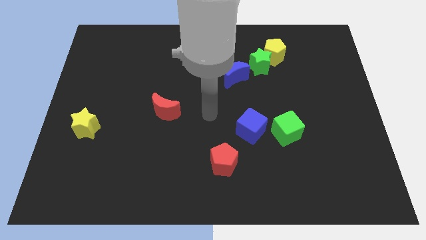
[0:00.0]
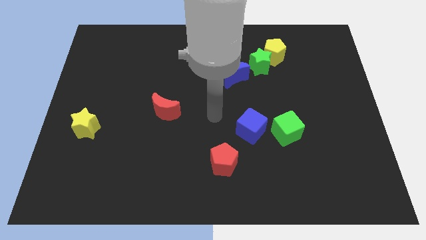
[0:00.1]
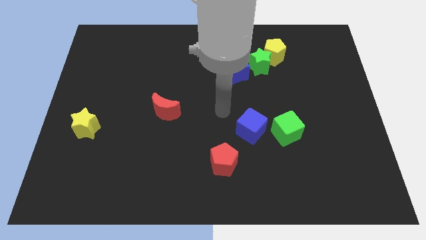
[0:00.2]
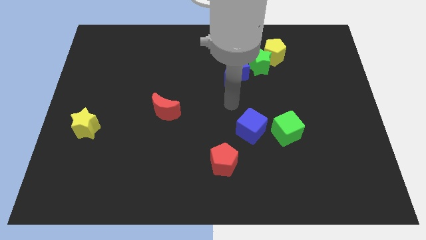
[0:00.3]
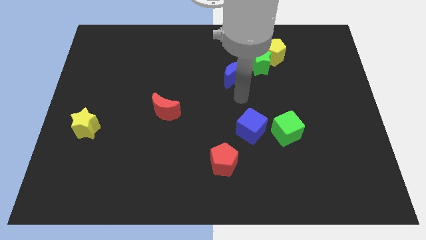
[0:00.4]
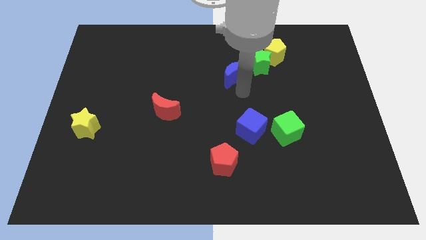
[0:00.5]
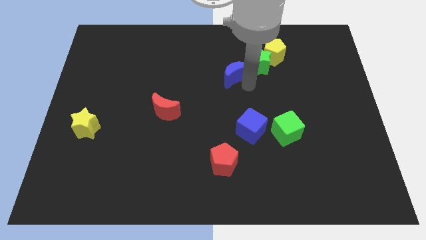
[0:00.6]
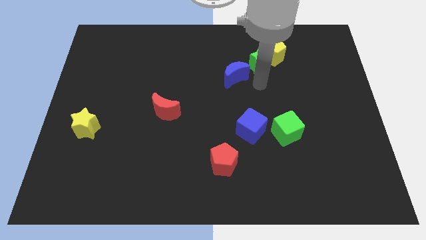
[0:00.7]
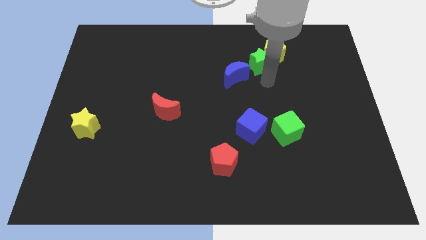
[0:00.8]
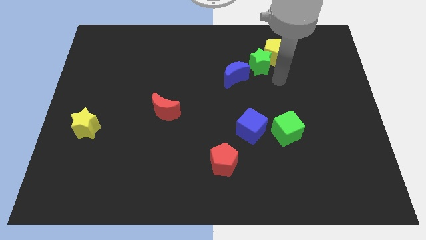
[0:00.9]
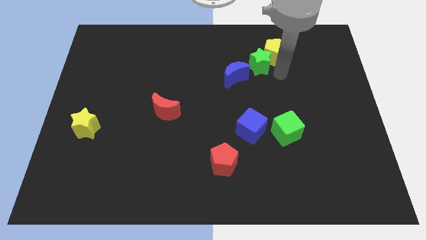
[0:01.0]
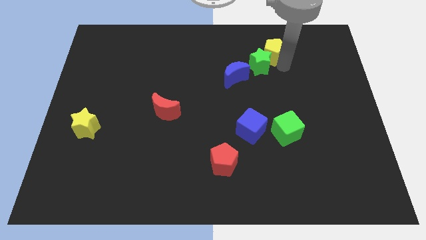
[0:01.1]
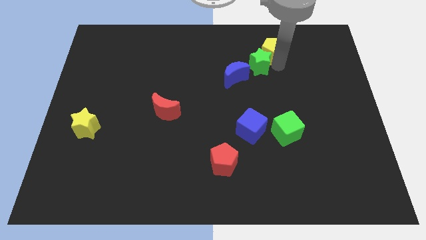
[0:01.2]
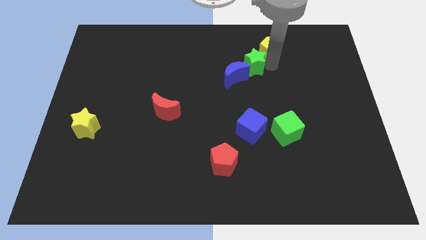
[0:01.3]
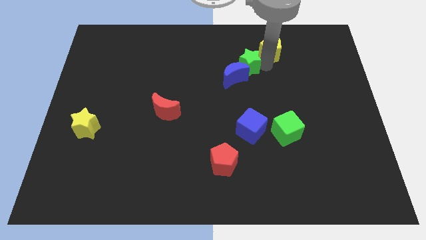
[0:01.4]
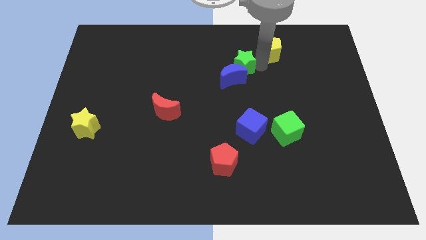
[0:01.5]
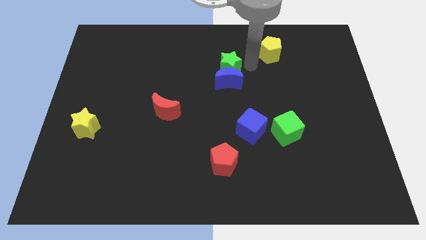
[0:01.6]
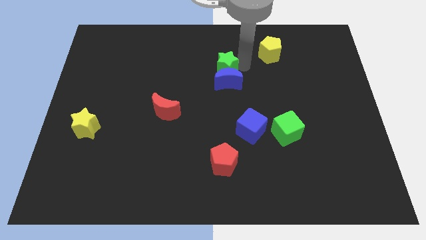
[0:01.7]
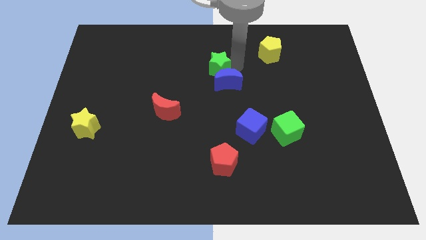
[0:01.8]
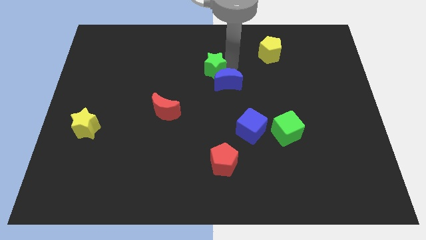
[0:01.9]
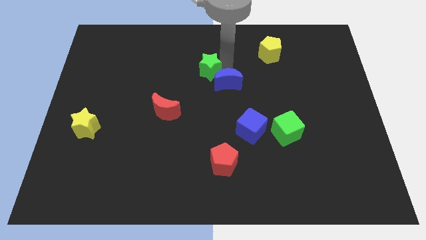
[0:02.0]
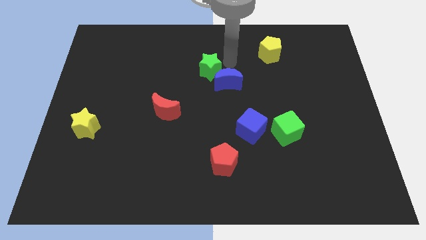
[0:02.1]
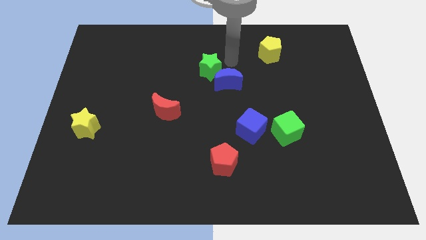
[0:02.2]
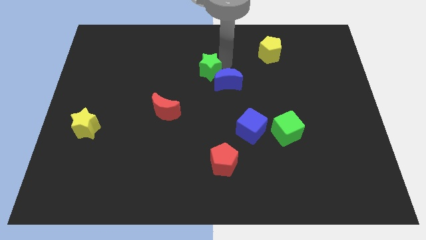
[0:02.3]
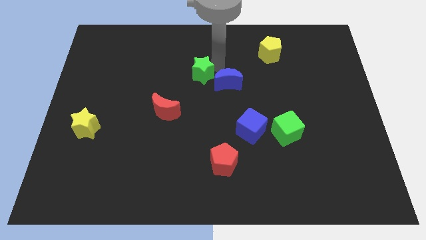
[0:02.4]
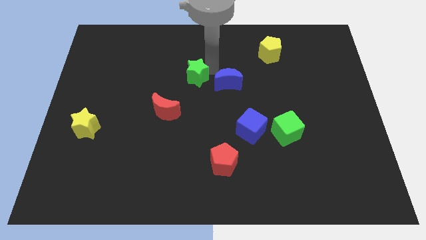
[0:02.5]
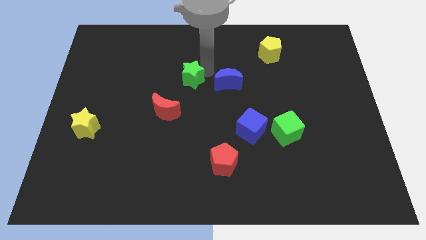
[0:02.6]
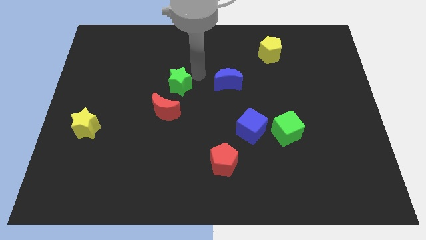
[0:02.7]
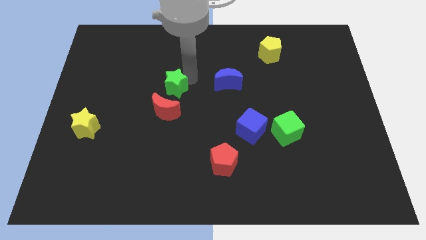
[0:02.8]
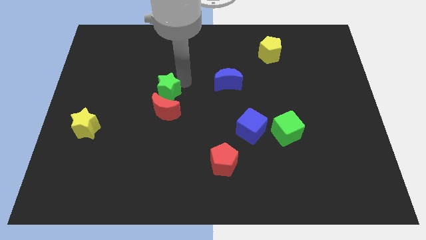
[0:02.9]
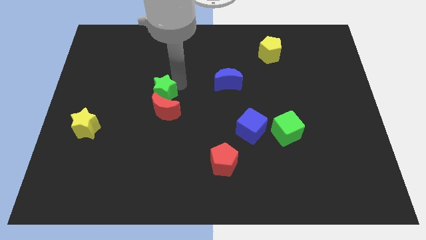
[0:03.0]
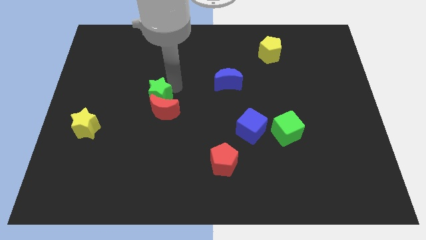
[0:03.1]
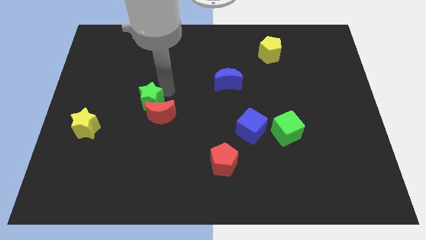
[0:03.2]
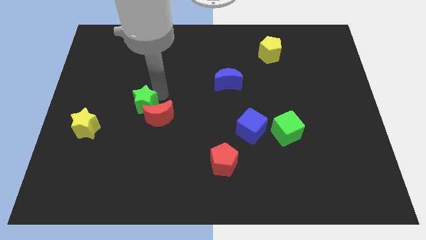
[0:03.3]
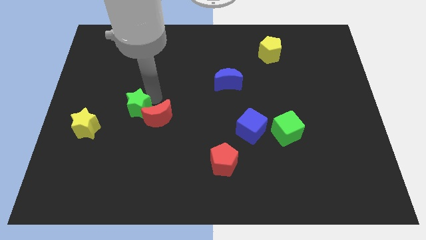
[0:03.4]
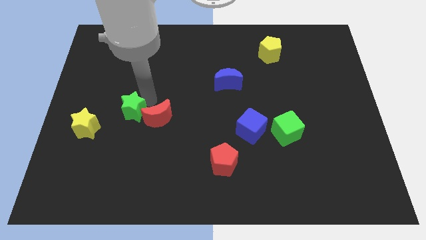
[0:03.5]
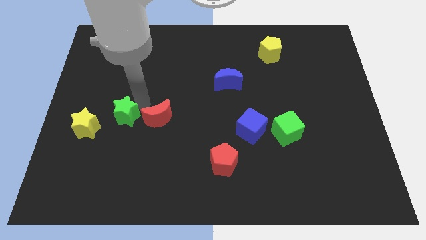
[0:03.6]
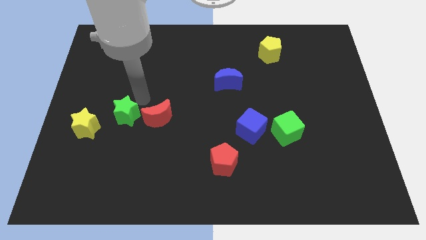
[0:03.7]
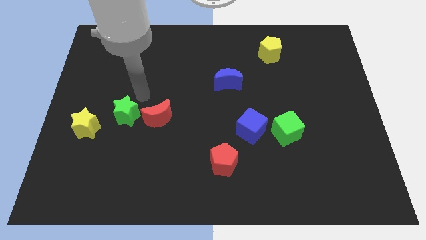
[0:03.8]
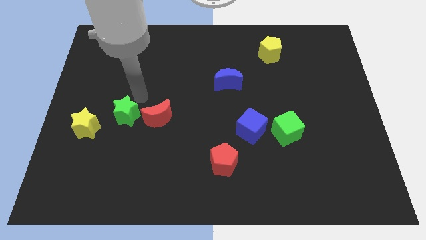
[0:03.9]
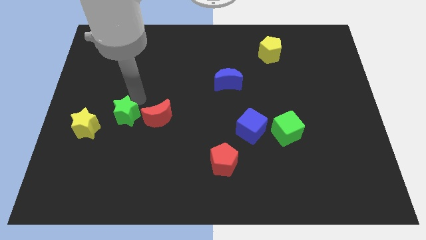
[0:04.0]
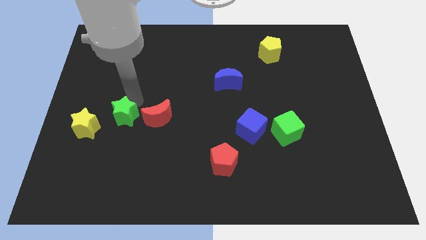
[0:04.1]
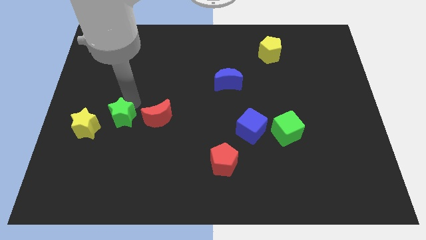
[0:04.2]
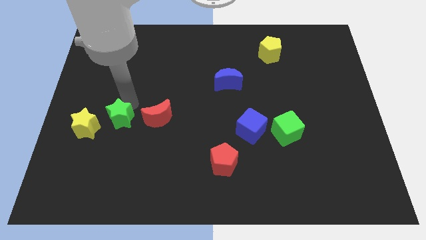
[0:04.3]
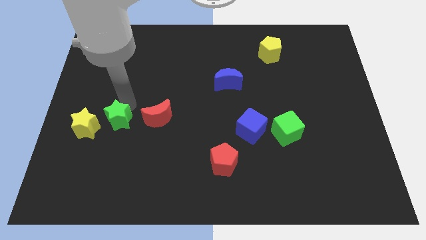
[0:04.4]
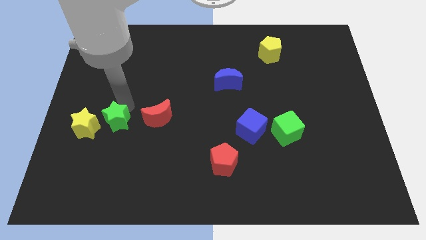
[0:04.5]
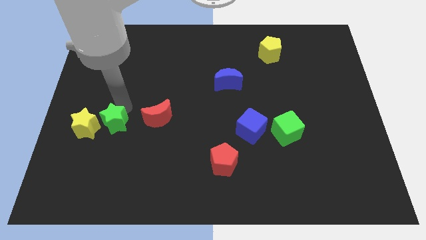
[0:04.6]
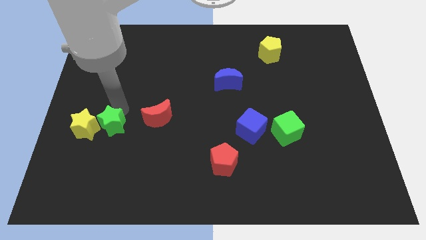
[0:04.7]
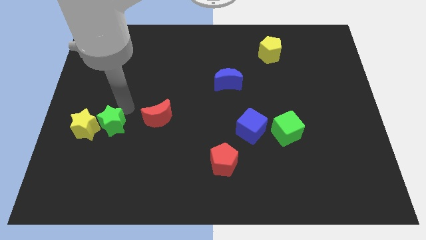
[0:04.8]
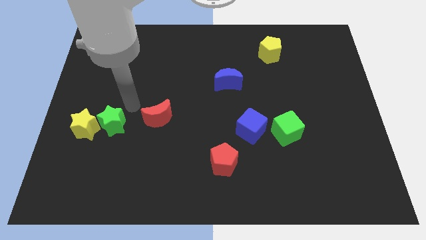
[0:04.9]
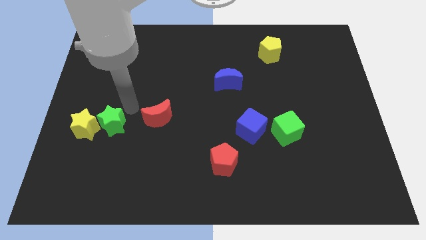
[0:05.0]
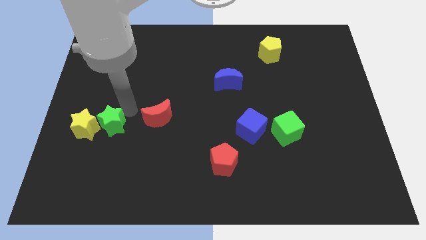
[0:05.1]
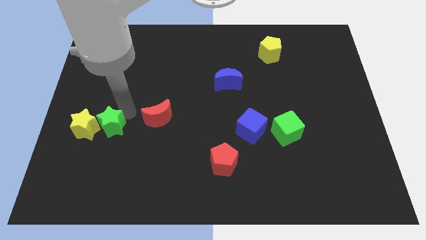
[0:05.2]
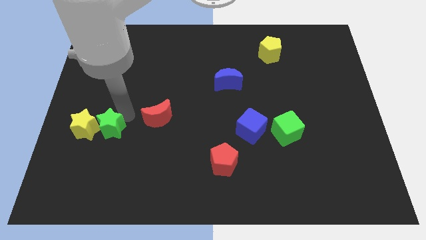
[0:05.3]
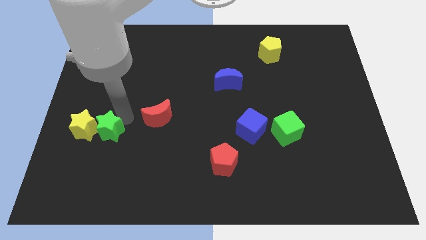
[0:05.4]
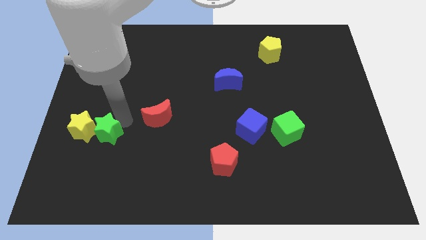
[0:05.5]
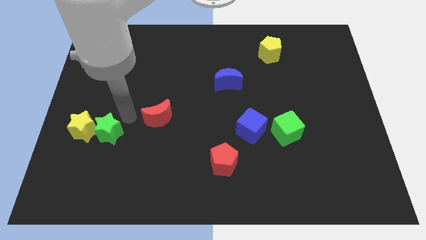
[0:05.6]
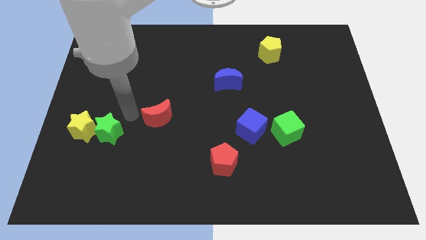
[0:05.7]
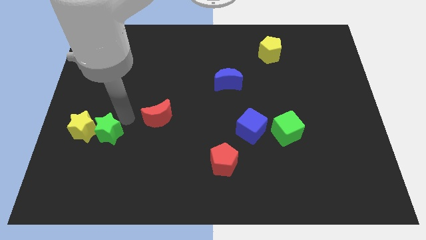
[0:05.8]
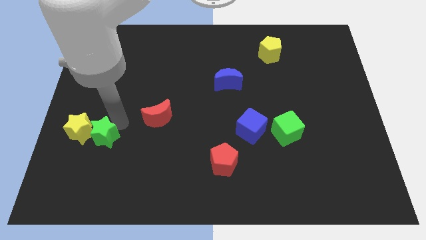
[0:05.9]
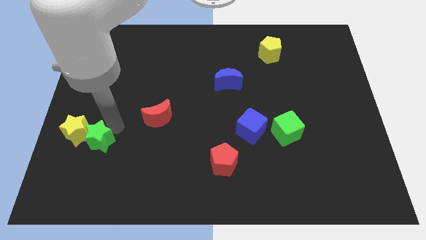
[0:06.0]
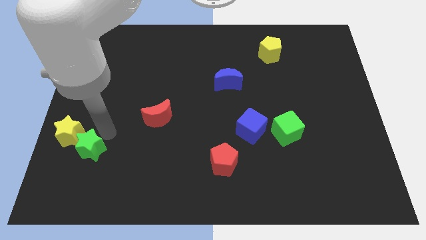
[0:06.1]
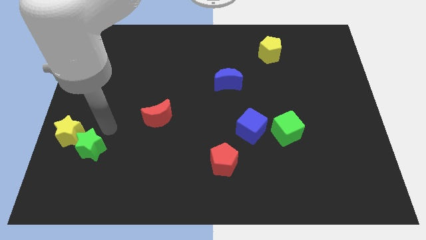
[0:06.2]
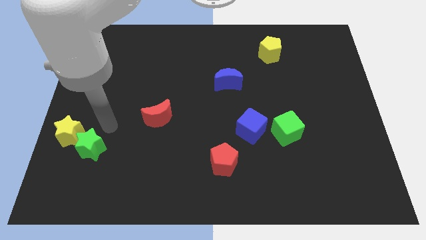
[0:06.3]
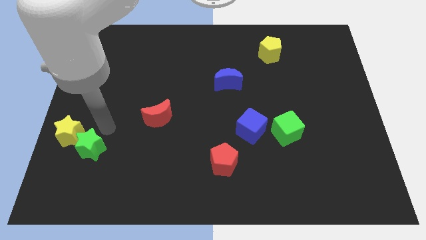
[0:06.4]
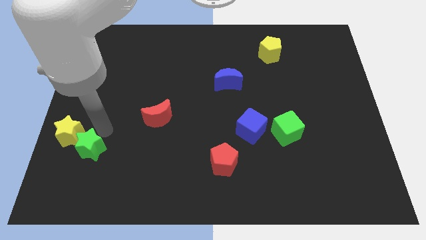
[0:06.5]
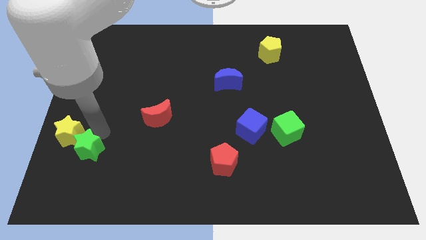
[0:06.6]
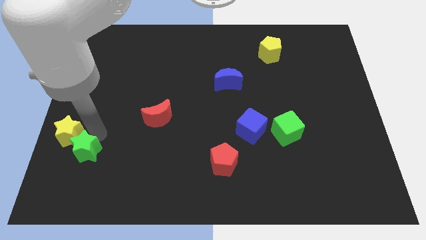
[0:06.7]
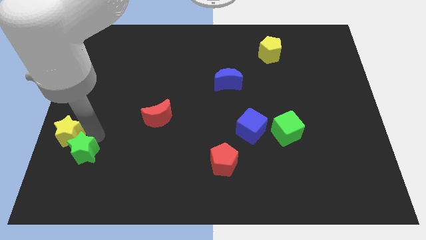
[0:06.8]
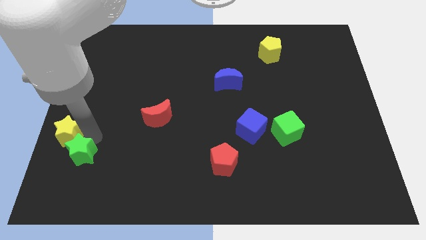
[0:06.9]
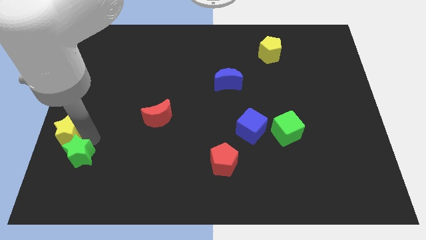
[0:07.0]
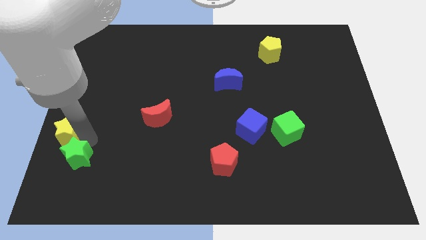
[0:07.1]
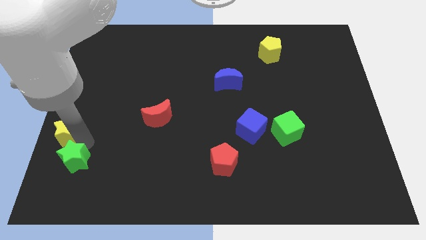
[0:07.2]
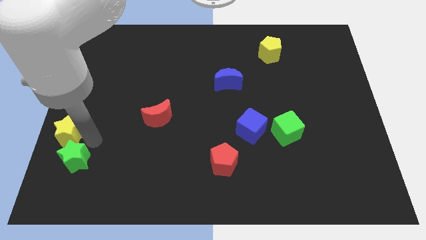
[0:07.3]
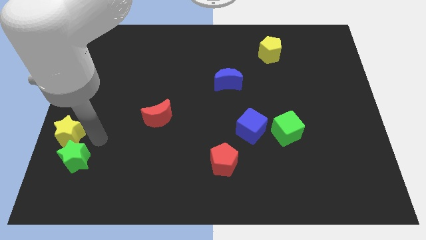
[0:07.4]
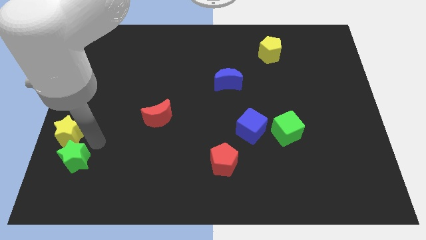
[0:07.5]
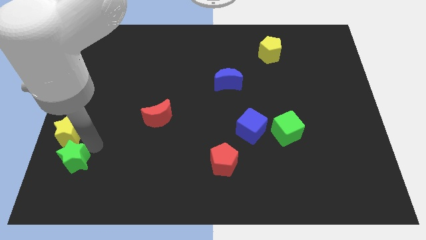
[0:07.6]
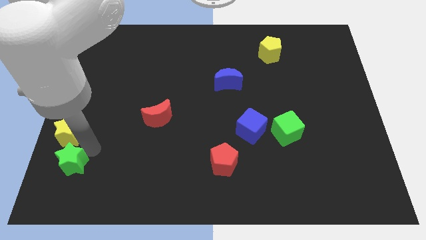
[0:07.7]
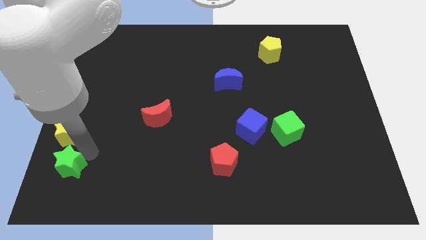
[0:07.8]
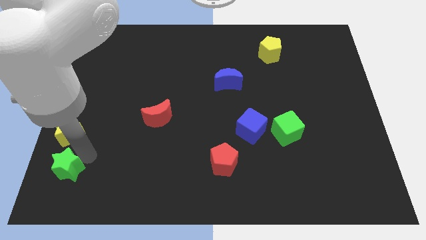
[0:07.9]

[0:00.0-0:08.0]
move the green star to the bottom left of the board
